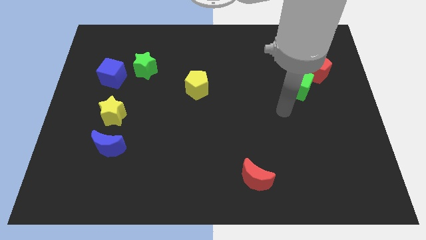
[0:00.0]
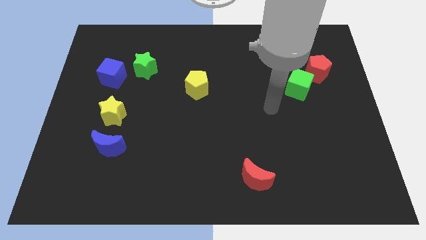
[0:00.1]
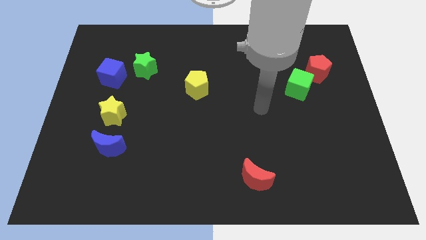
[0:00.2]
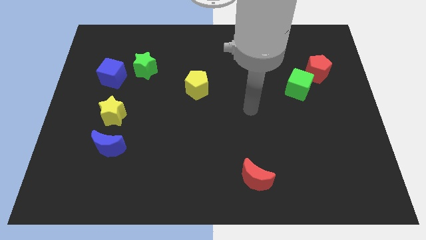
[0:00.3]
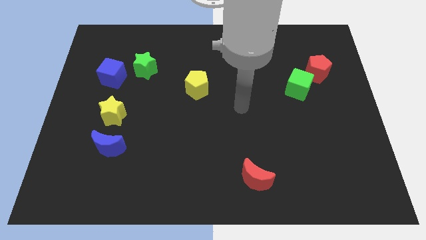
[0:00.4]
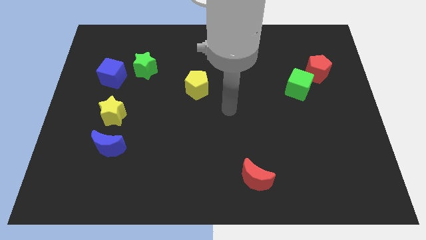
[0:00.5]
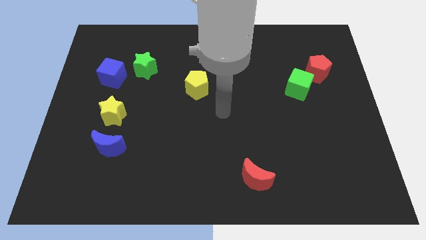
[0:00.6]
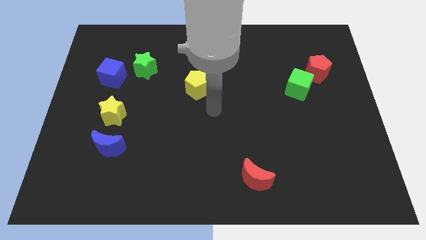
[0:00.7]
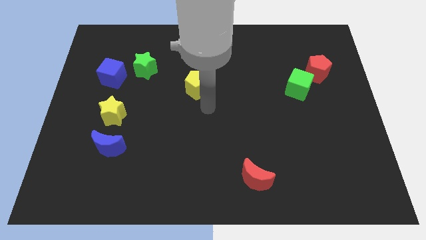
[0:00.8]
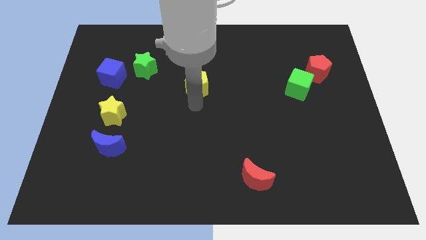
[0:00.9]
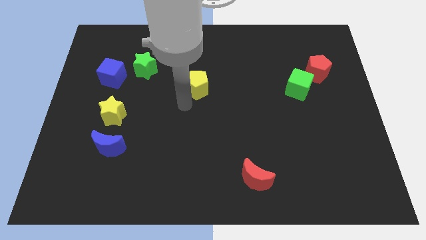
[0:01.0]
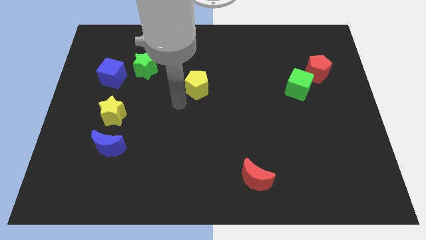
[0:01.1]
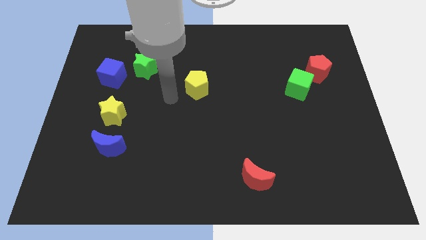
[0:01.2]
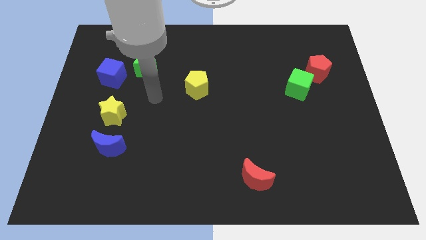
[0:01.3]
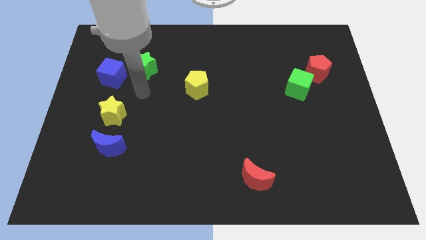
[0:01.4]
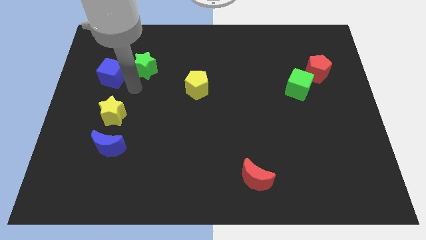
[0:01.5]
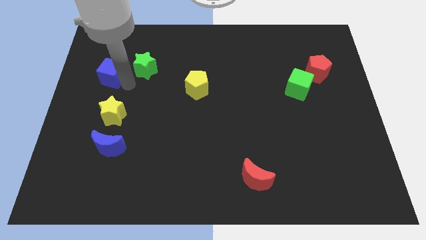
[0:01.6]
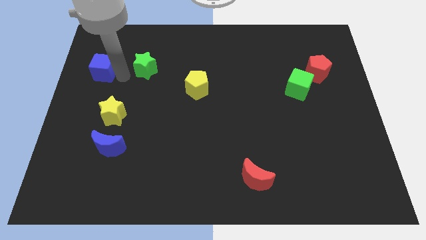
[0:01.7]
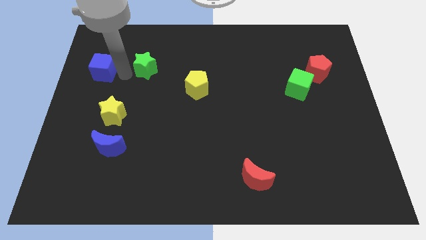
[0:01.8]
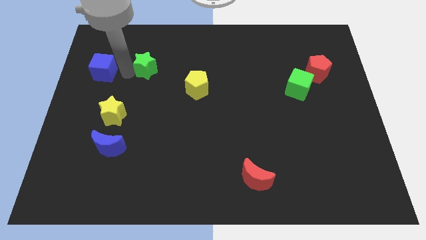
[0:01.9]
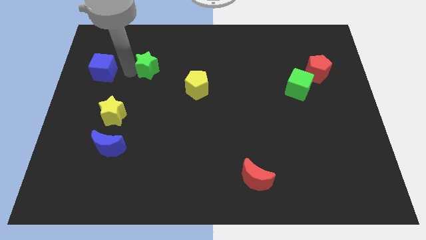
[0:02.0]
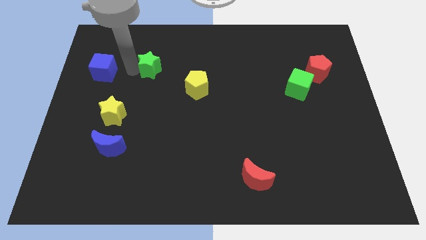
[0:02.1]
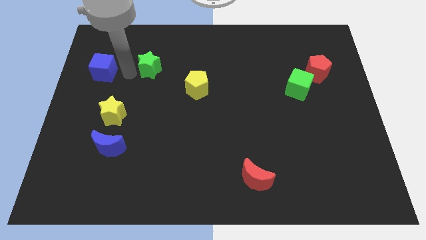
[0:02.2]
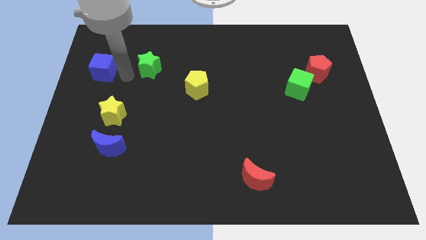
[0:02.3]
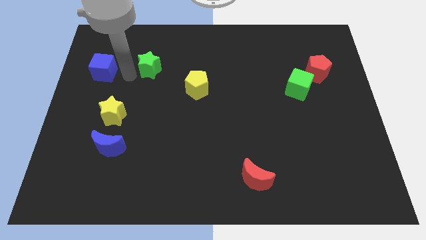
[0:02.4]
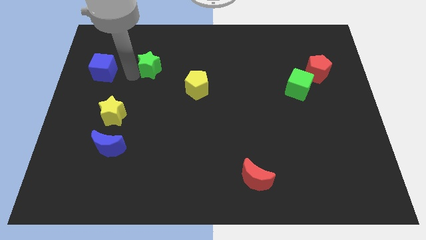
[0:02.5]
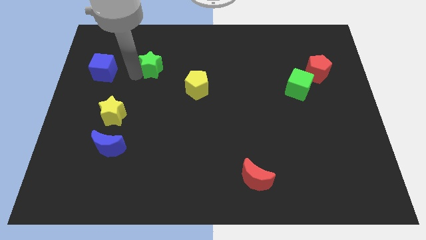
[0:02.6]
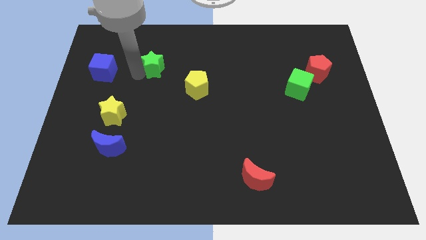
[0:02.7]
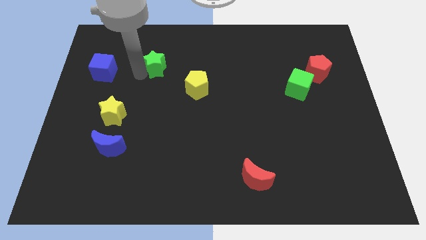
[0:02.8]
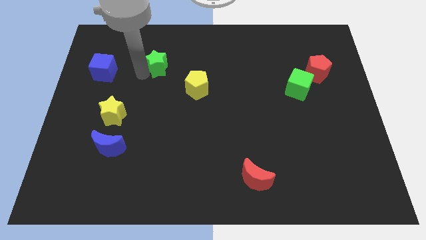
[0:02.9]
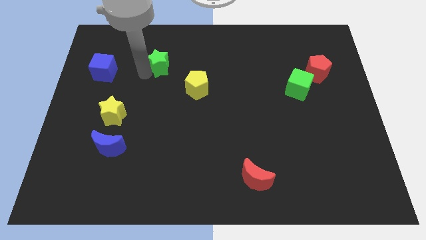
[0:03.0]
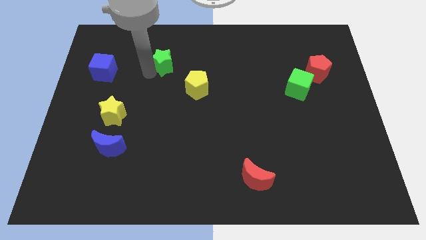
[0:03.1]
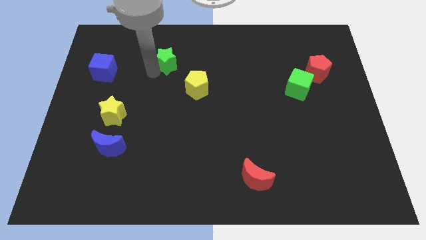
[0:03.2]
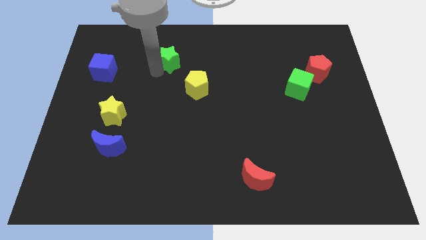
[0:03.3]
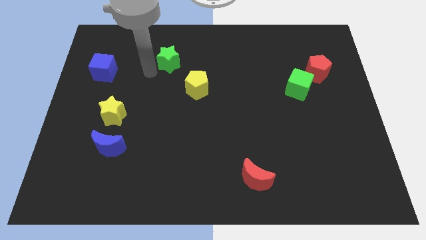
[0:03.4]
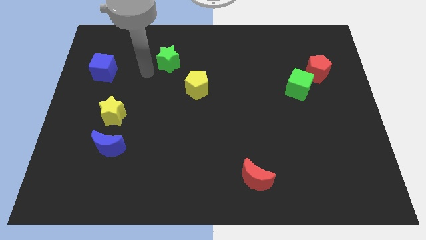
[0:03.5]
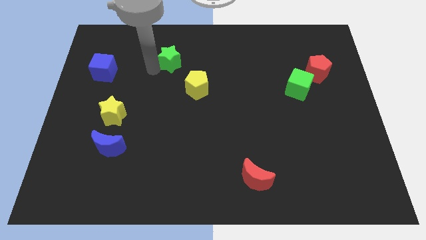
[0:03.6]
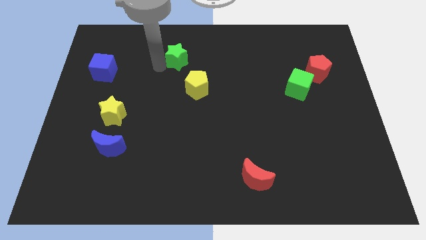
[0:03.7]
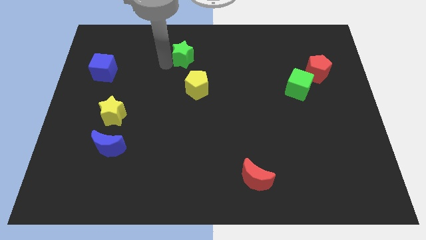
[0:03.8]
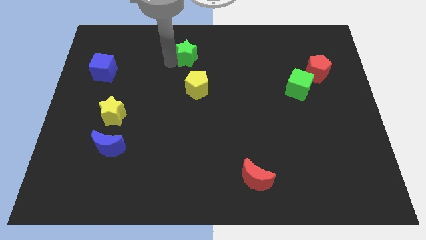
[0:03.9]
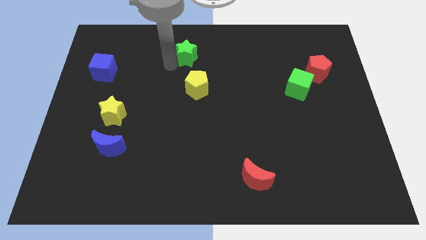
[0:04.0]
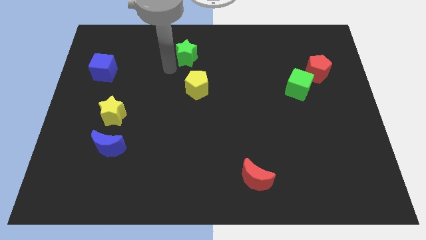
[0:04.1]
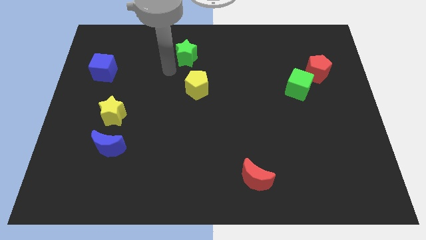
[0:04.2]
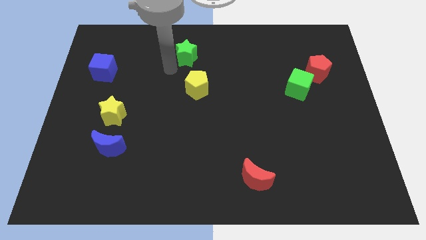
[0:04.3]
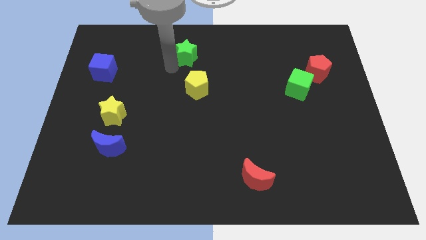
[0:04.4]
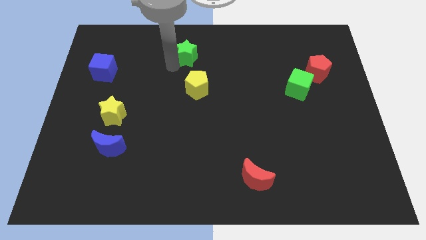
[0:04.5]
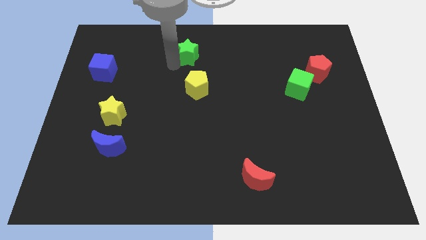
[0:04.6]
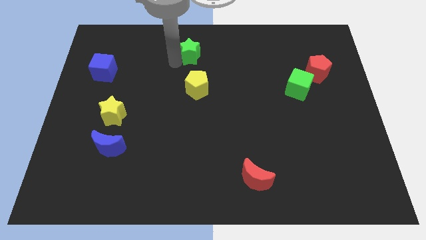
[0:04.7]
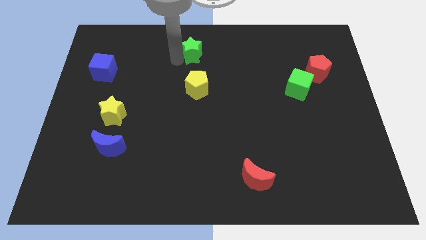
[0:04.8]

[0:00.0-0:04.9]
put the green star to the top

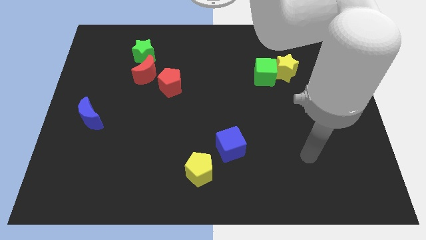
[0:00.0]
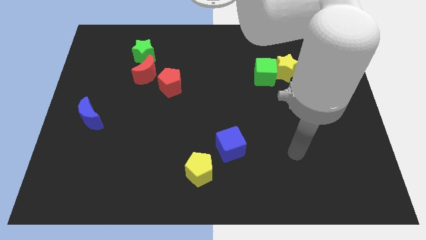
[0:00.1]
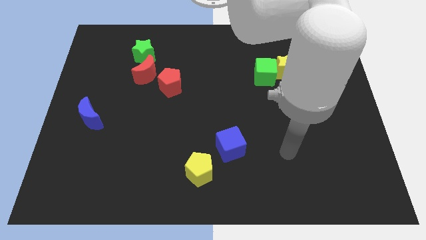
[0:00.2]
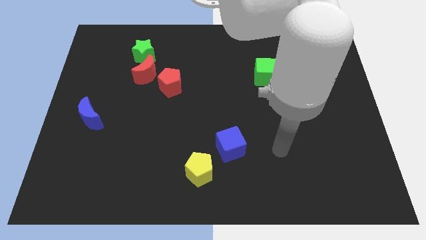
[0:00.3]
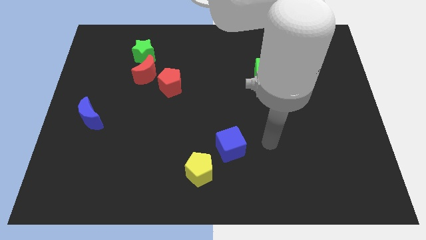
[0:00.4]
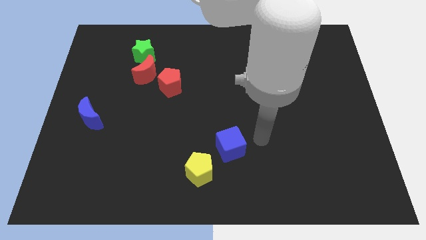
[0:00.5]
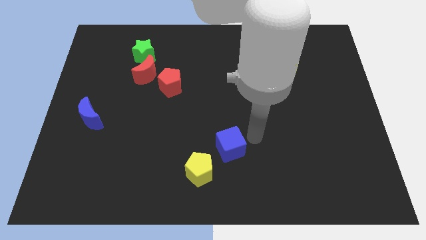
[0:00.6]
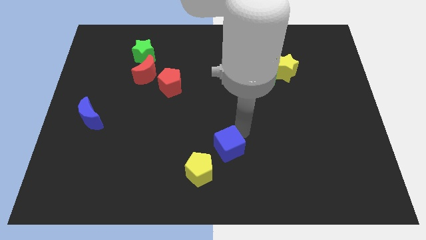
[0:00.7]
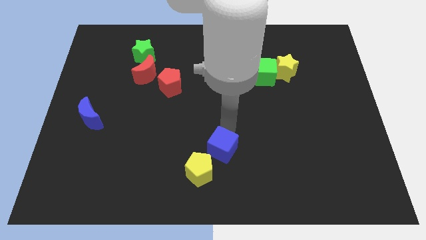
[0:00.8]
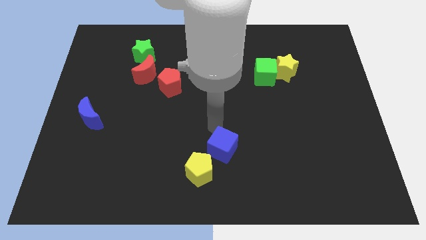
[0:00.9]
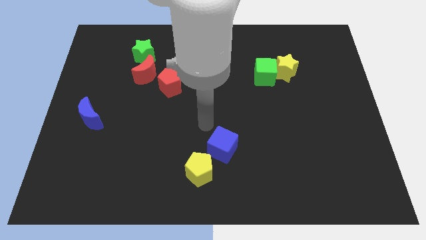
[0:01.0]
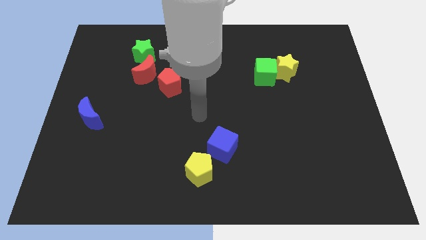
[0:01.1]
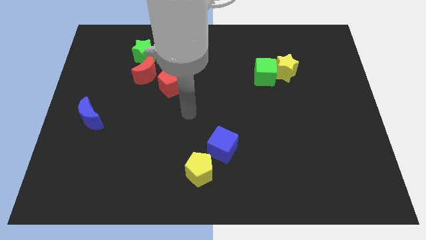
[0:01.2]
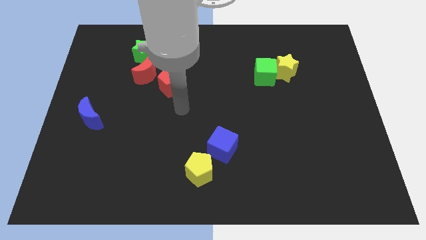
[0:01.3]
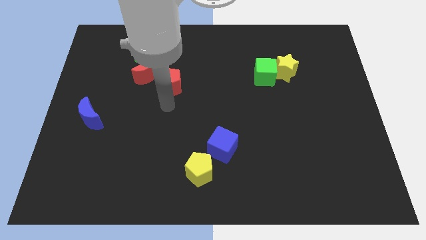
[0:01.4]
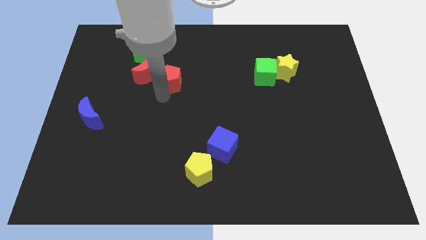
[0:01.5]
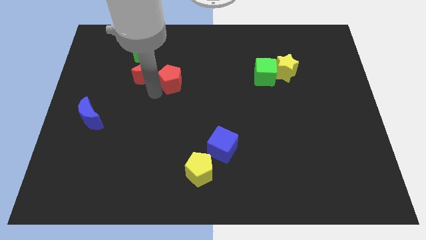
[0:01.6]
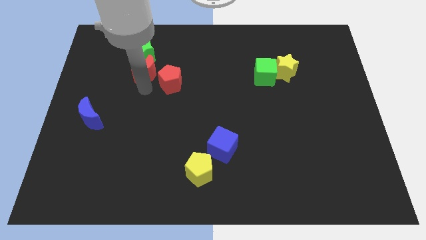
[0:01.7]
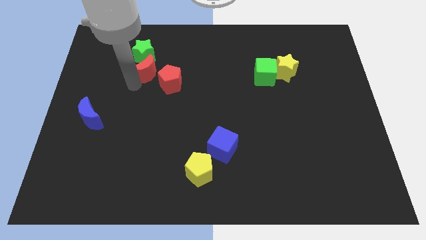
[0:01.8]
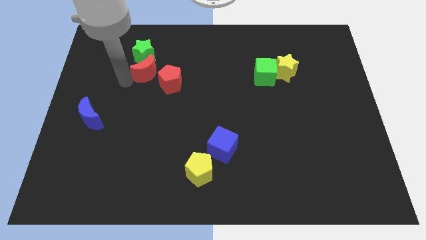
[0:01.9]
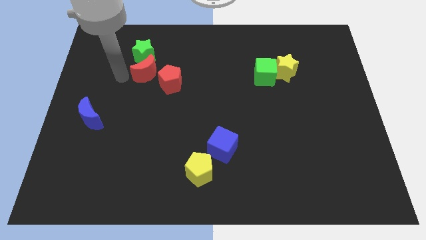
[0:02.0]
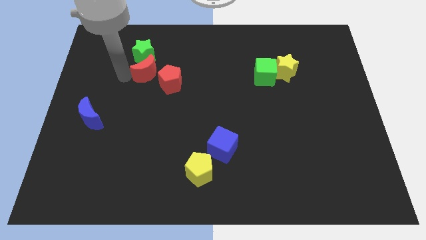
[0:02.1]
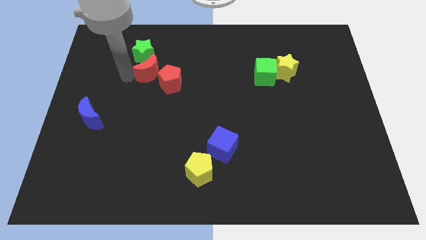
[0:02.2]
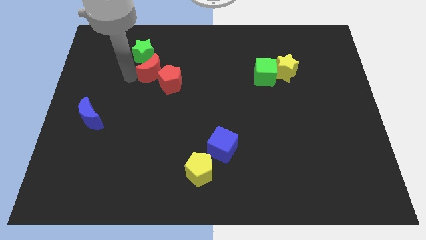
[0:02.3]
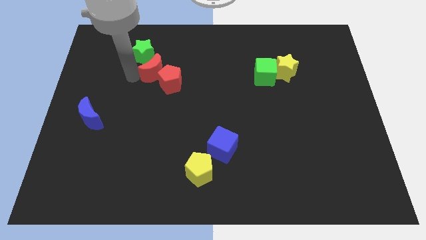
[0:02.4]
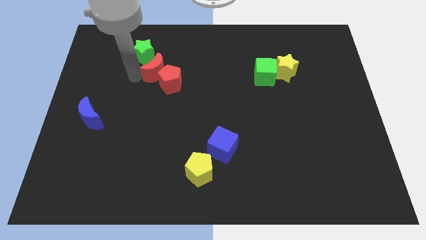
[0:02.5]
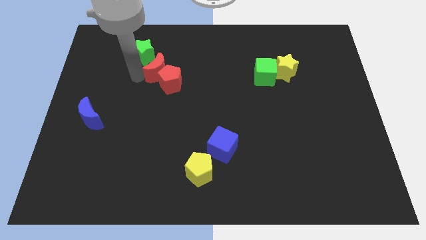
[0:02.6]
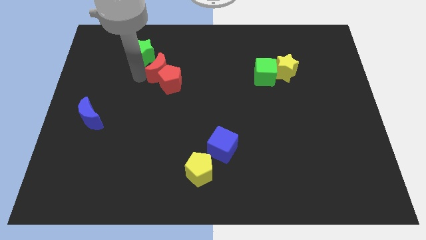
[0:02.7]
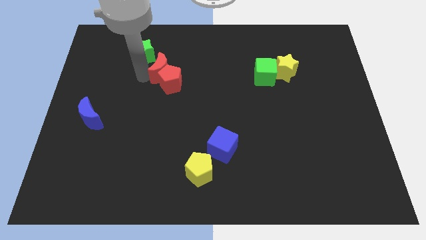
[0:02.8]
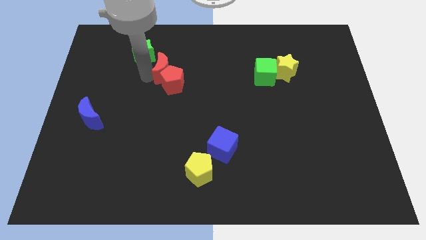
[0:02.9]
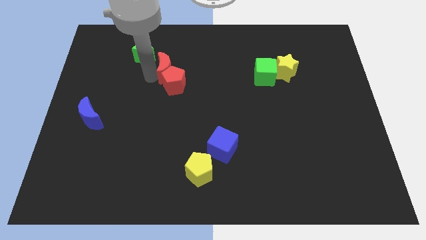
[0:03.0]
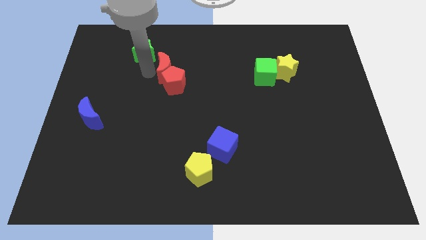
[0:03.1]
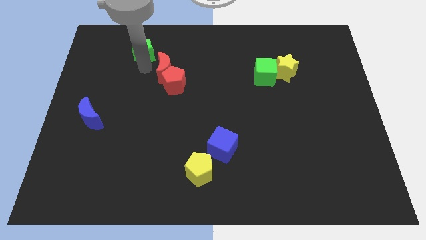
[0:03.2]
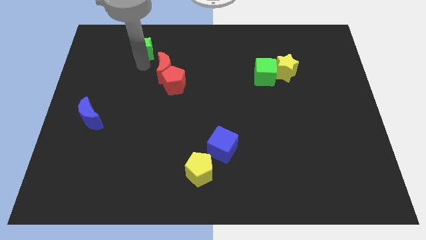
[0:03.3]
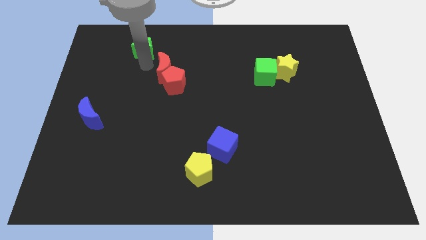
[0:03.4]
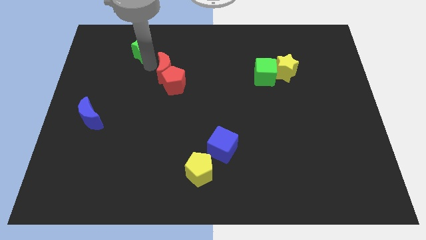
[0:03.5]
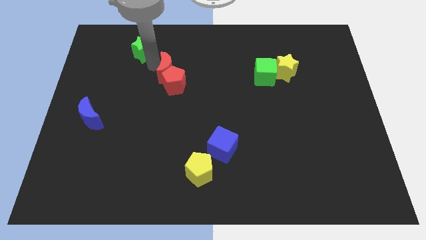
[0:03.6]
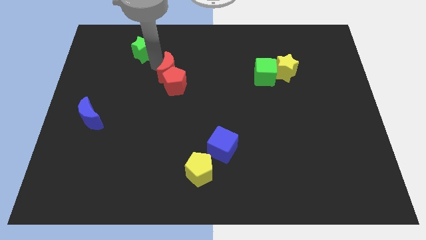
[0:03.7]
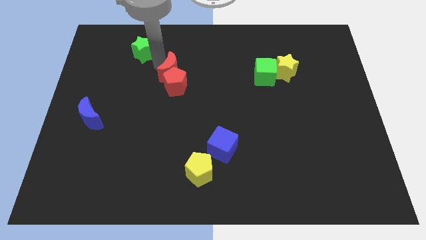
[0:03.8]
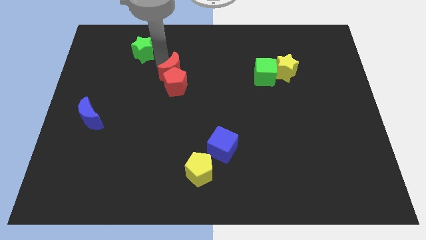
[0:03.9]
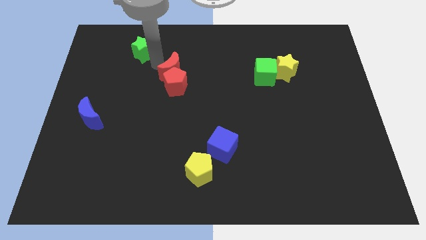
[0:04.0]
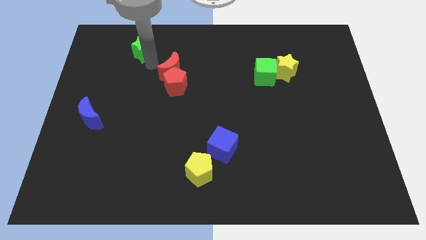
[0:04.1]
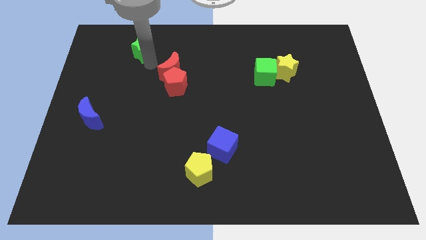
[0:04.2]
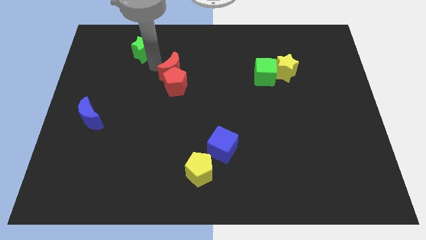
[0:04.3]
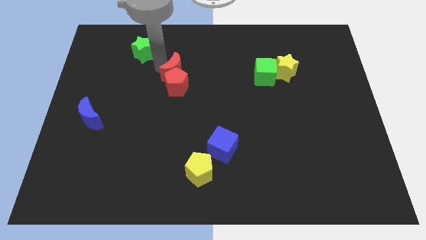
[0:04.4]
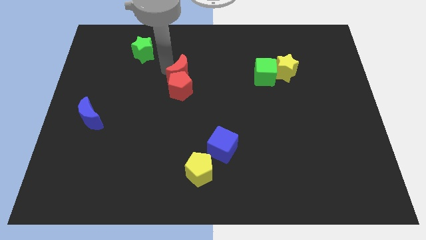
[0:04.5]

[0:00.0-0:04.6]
slide the red moon to the center
